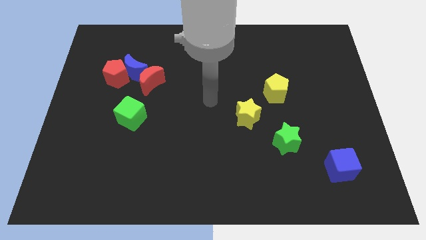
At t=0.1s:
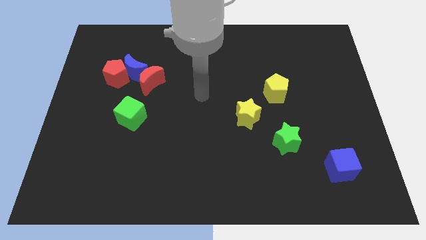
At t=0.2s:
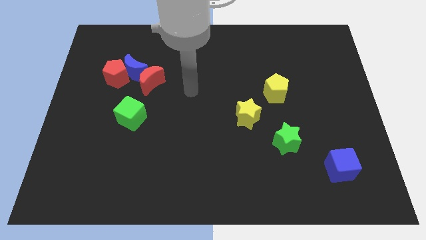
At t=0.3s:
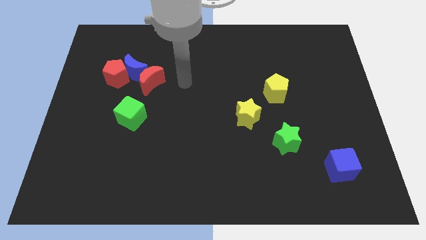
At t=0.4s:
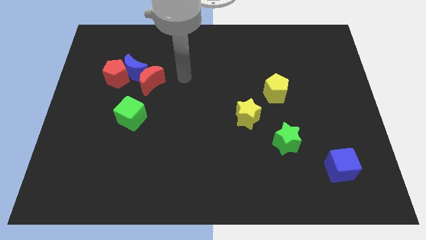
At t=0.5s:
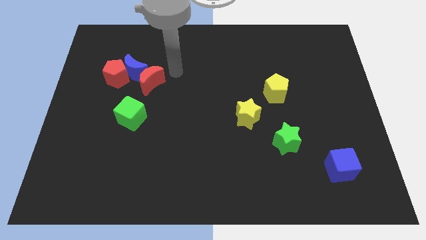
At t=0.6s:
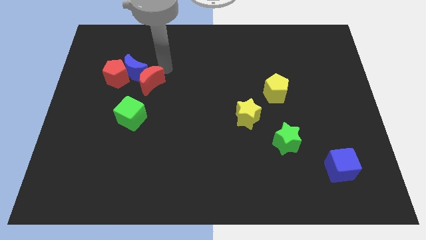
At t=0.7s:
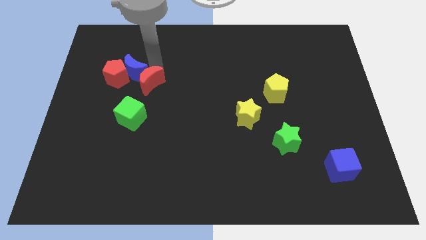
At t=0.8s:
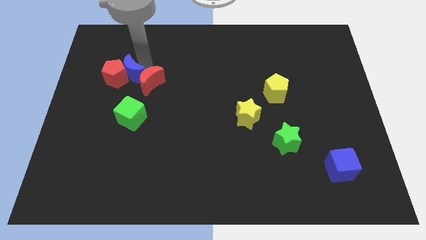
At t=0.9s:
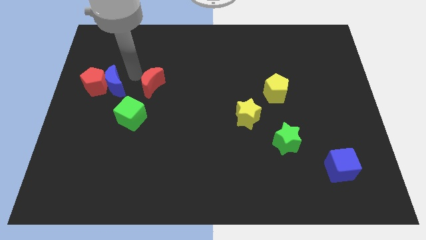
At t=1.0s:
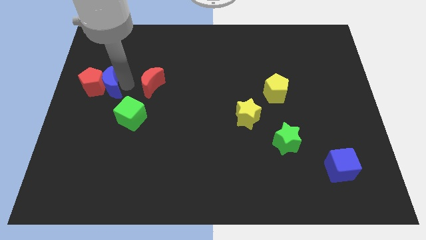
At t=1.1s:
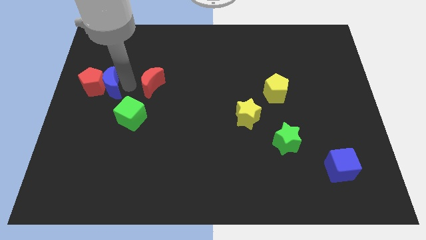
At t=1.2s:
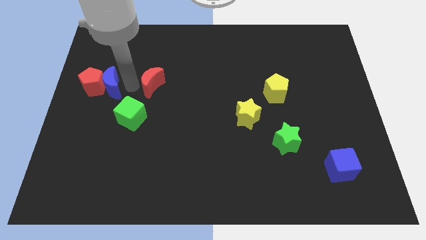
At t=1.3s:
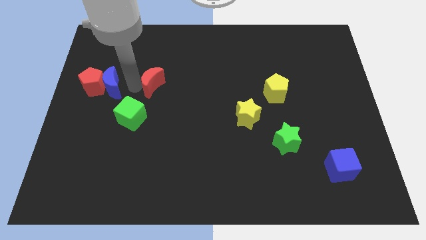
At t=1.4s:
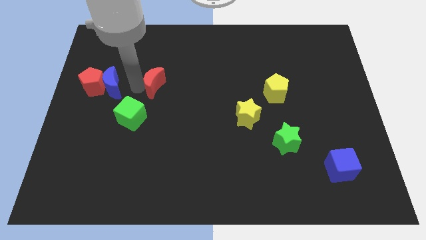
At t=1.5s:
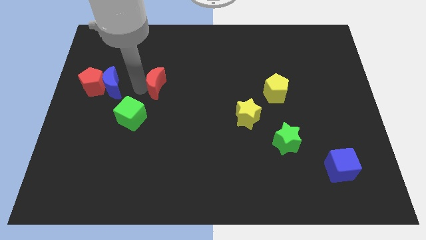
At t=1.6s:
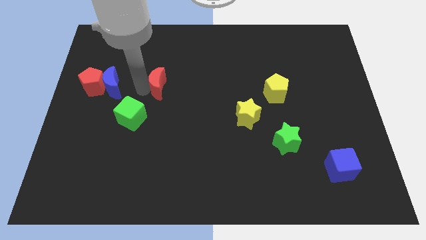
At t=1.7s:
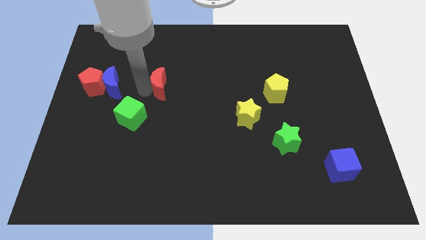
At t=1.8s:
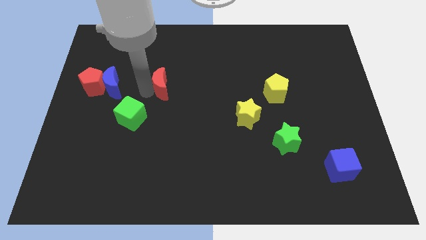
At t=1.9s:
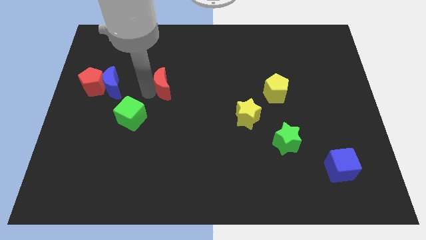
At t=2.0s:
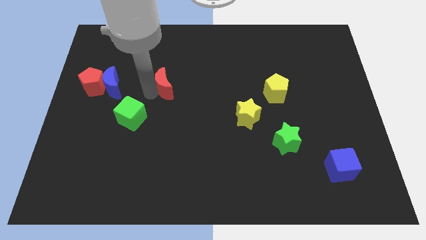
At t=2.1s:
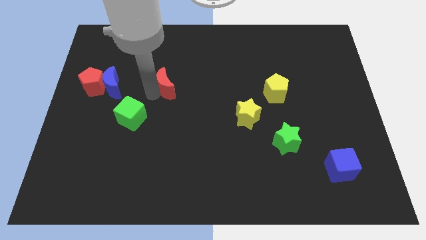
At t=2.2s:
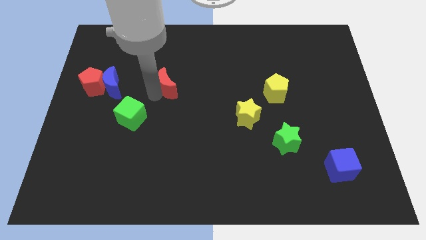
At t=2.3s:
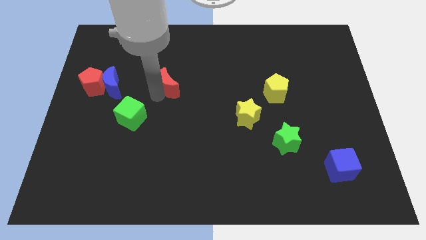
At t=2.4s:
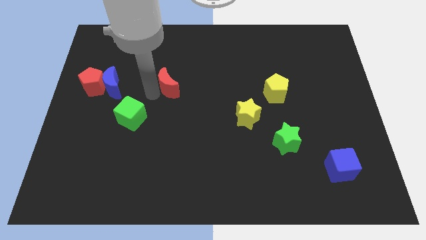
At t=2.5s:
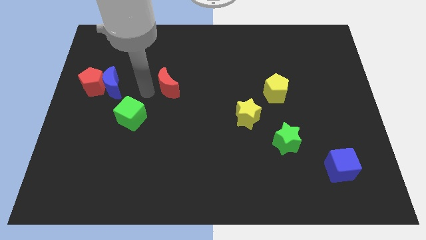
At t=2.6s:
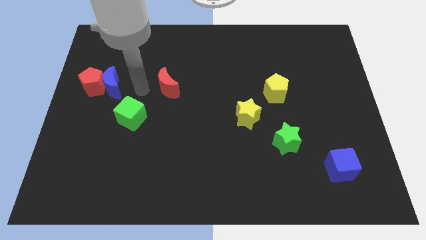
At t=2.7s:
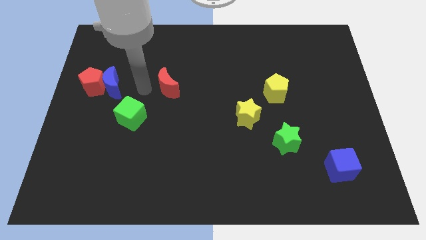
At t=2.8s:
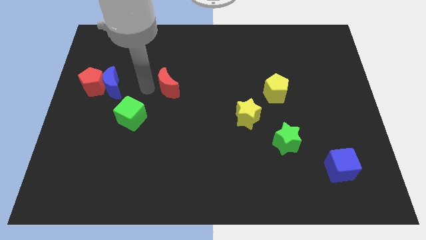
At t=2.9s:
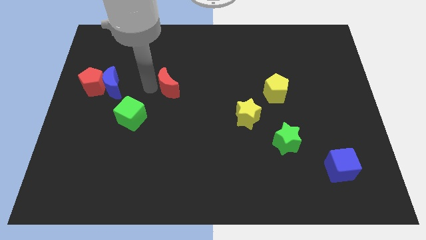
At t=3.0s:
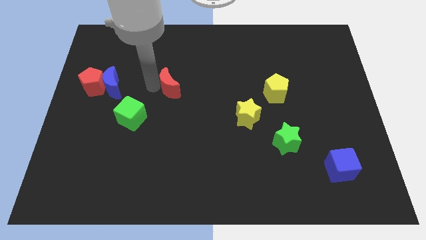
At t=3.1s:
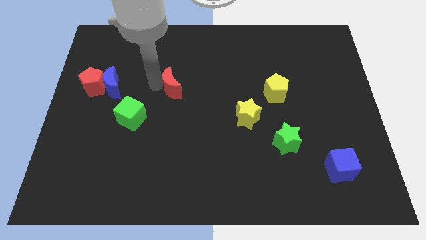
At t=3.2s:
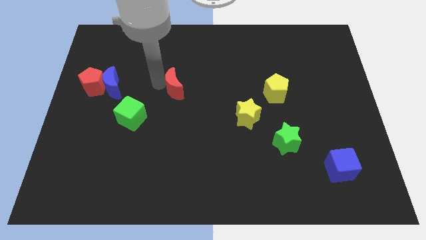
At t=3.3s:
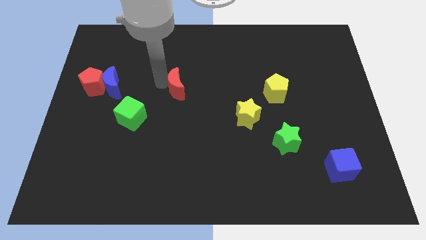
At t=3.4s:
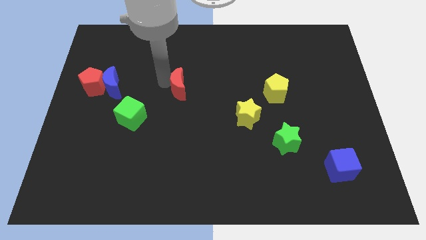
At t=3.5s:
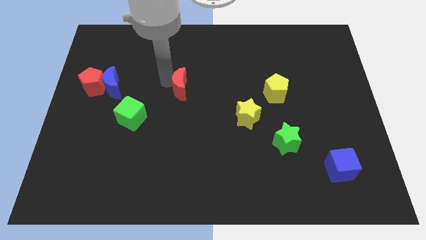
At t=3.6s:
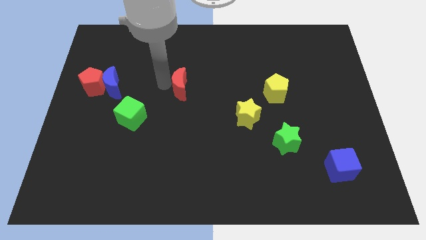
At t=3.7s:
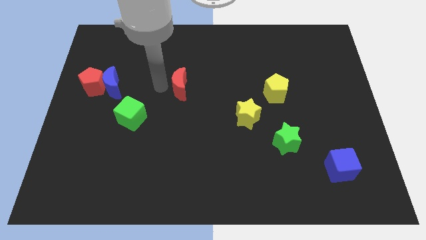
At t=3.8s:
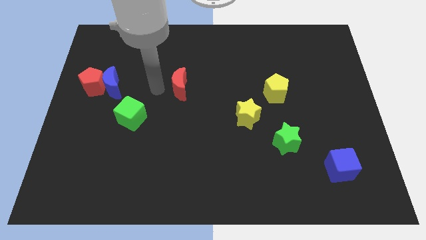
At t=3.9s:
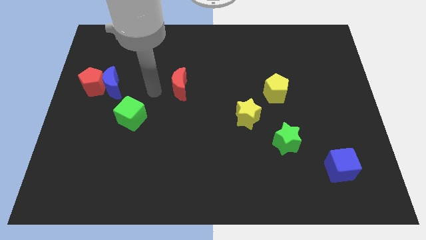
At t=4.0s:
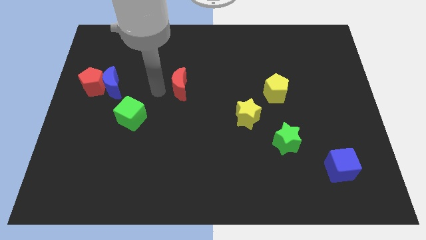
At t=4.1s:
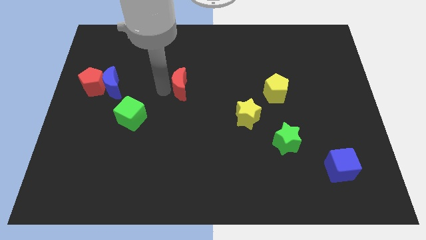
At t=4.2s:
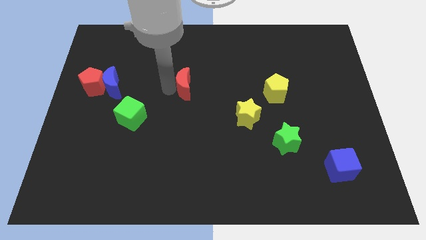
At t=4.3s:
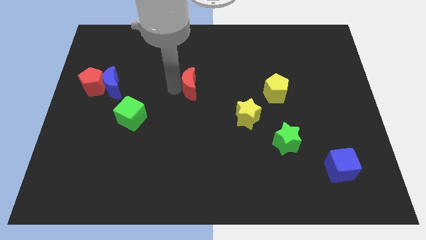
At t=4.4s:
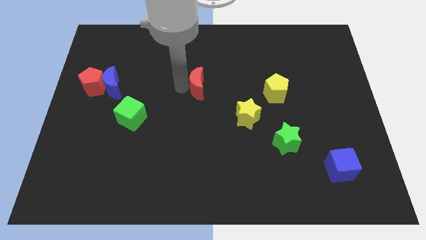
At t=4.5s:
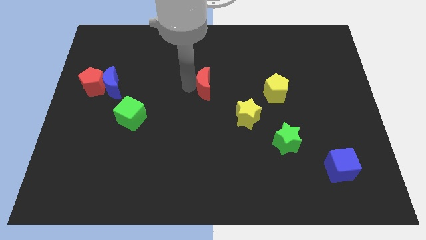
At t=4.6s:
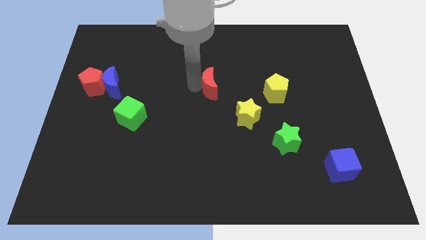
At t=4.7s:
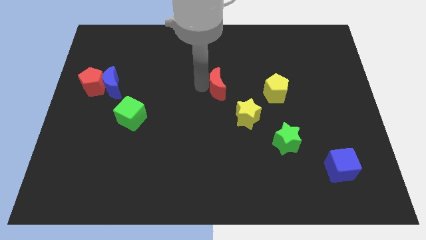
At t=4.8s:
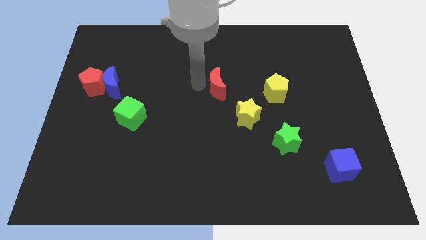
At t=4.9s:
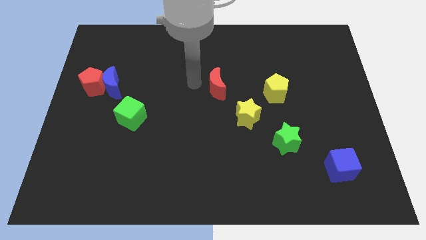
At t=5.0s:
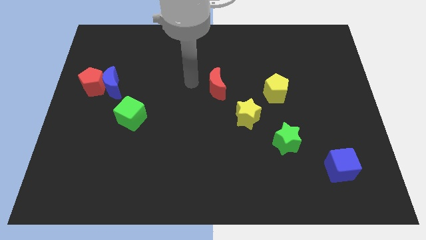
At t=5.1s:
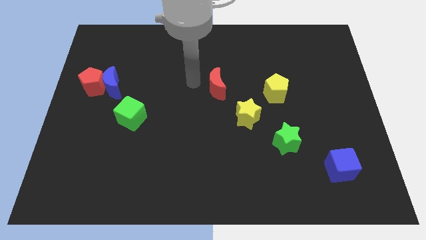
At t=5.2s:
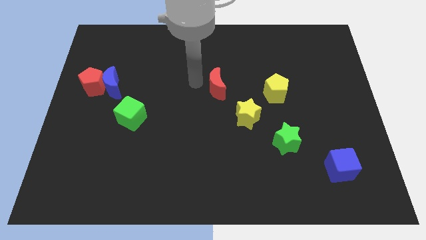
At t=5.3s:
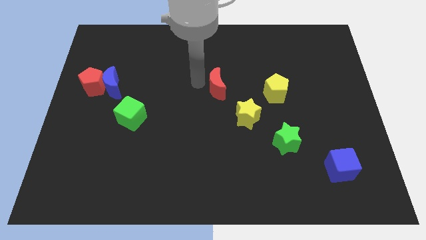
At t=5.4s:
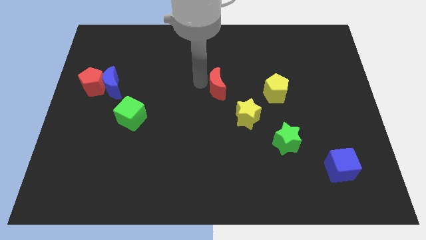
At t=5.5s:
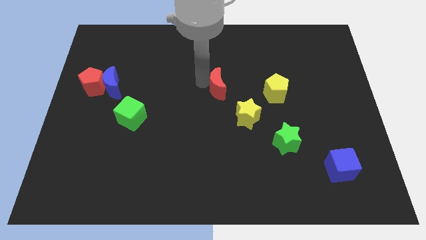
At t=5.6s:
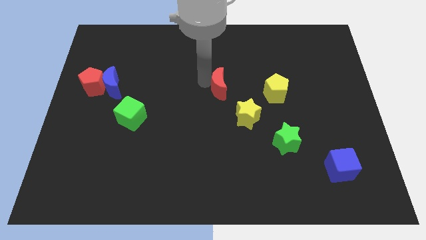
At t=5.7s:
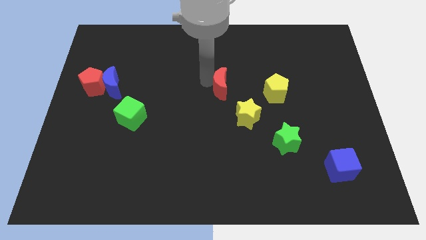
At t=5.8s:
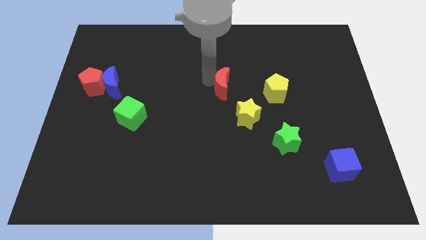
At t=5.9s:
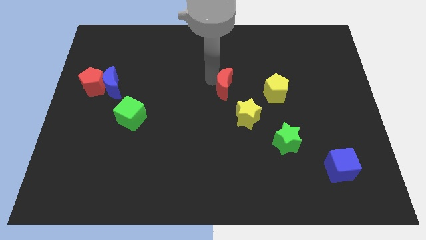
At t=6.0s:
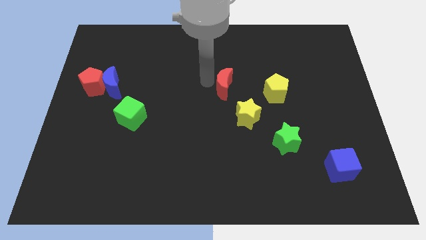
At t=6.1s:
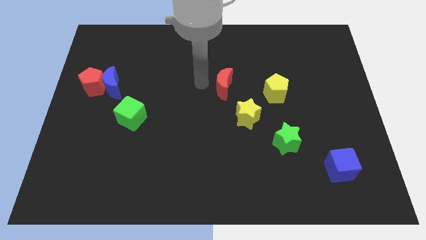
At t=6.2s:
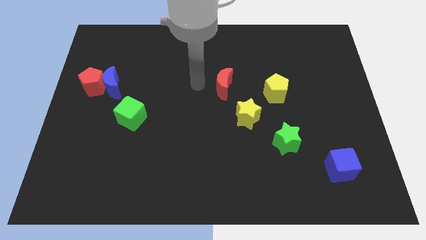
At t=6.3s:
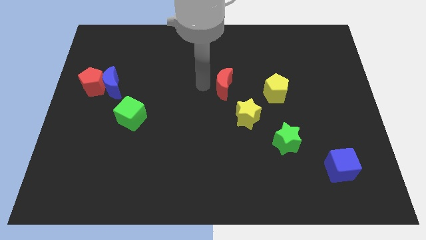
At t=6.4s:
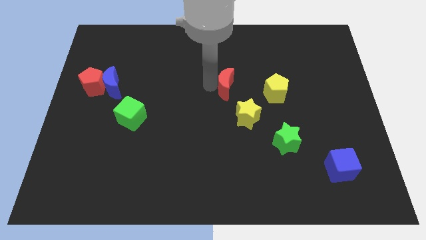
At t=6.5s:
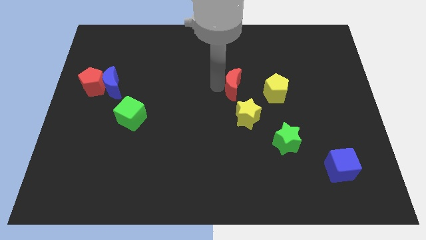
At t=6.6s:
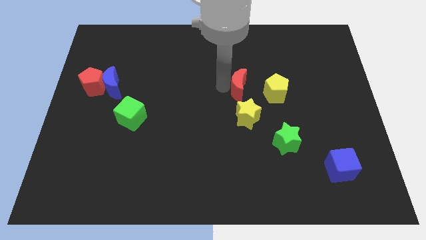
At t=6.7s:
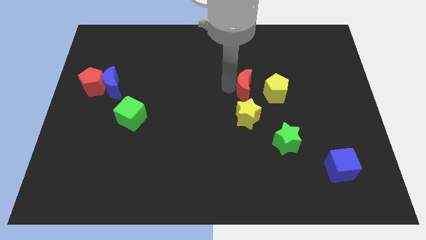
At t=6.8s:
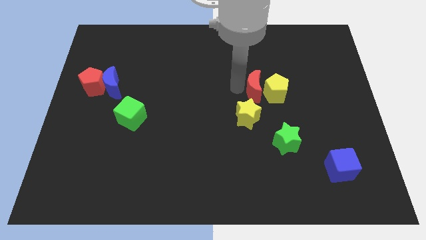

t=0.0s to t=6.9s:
move the red moon towards the yellow pentagon

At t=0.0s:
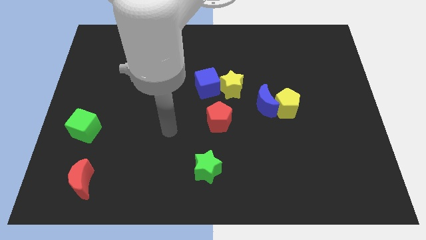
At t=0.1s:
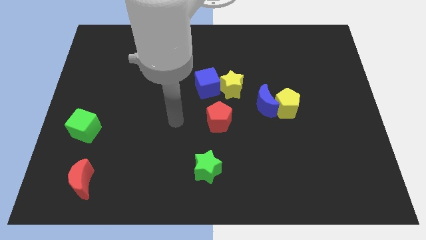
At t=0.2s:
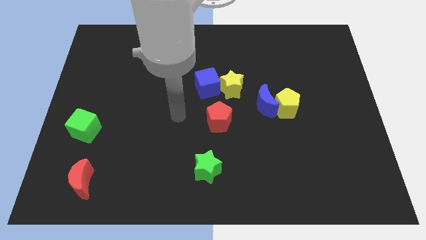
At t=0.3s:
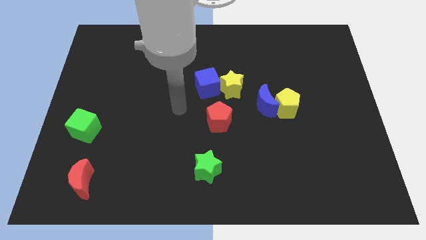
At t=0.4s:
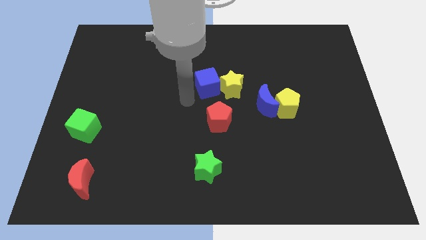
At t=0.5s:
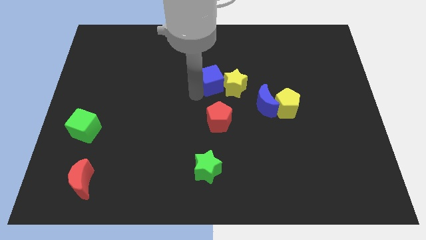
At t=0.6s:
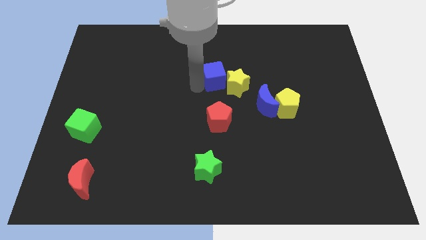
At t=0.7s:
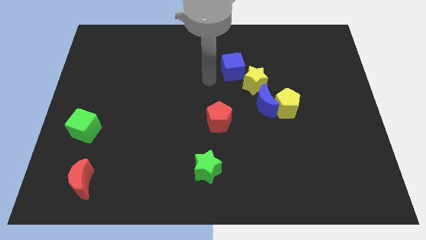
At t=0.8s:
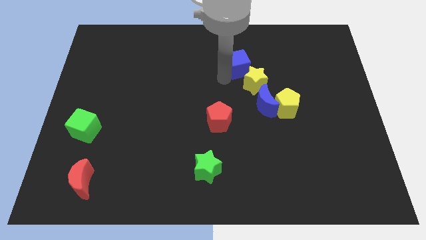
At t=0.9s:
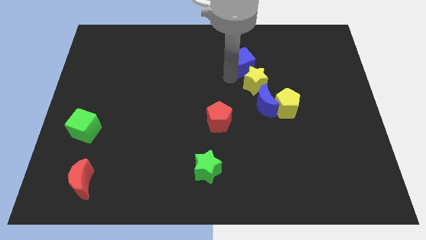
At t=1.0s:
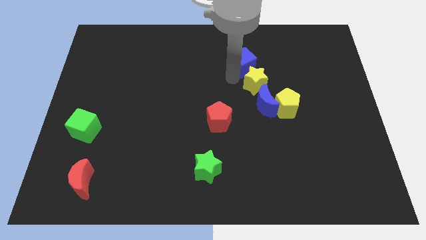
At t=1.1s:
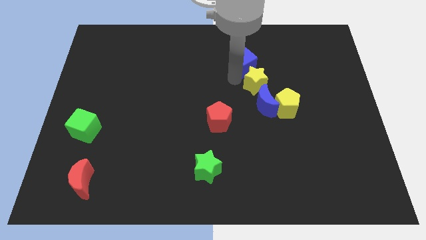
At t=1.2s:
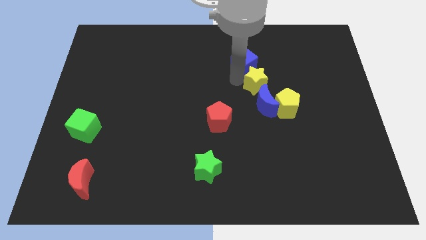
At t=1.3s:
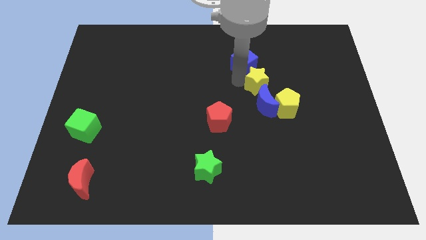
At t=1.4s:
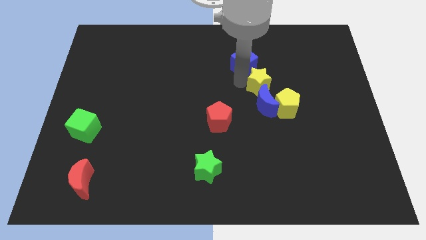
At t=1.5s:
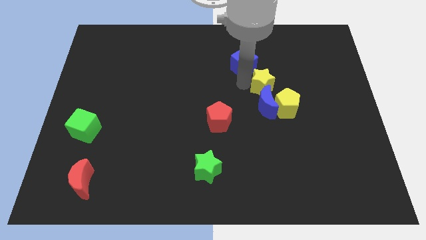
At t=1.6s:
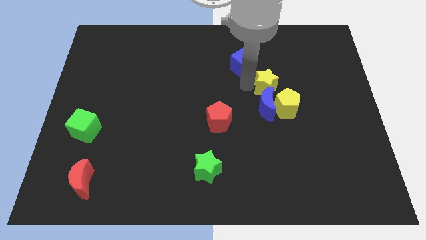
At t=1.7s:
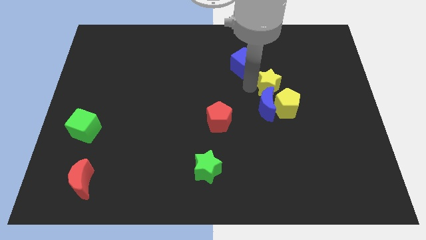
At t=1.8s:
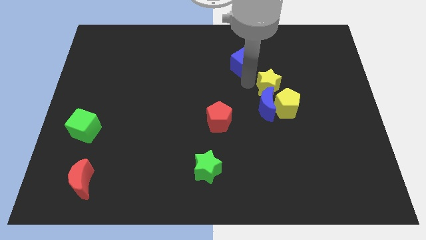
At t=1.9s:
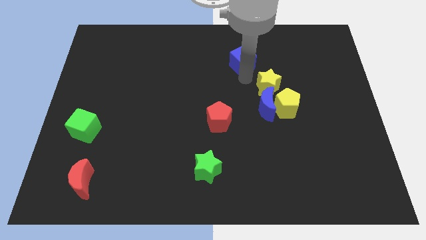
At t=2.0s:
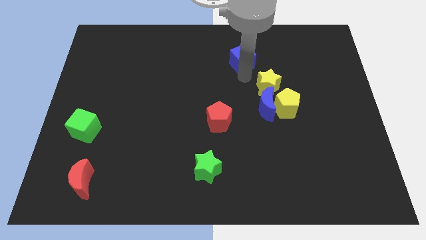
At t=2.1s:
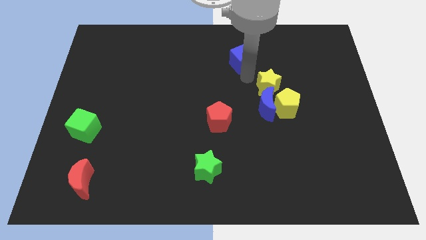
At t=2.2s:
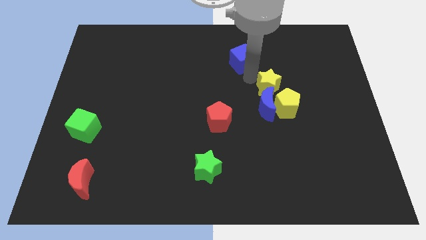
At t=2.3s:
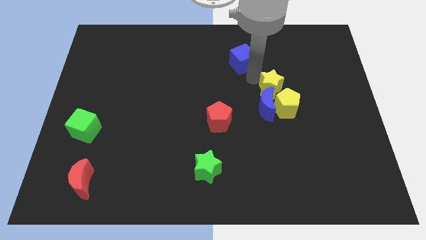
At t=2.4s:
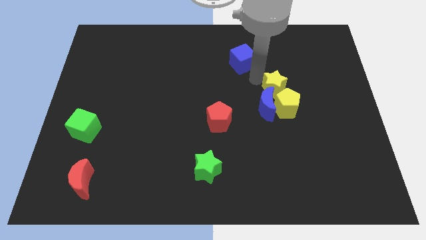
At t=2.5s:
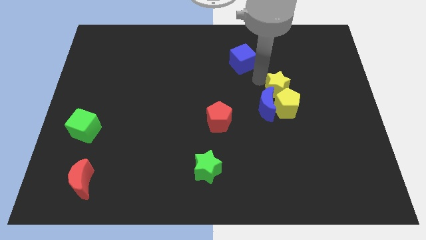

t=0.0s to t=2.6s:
put the yellow star next to the yellow pentagon
